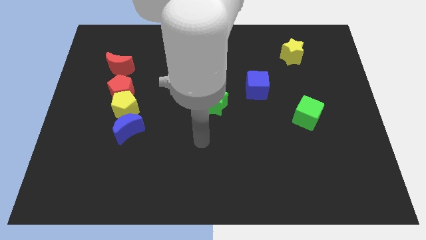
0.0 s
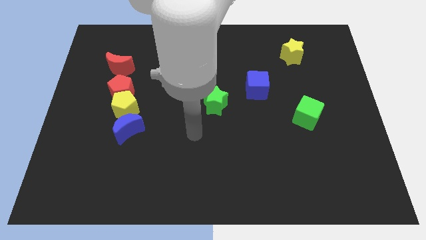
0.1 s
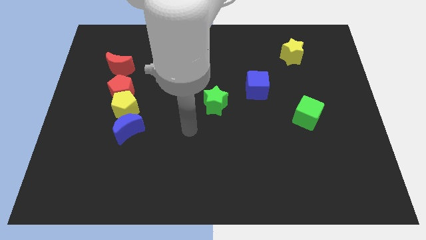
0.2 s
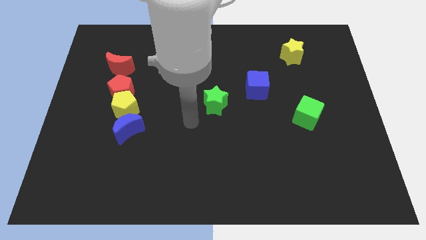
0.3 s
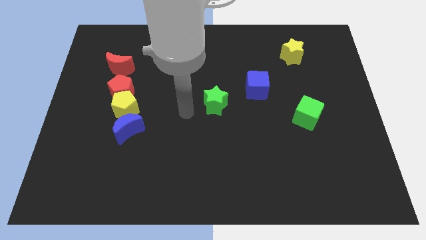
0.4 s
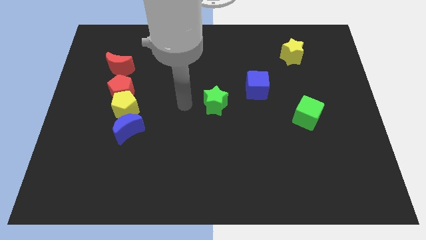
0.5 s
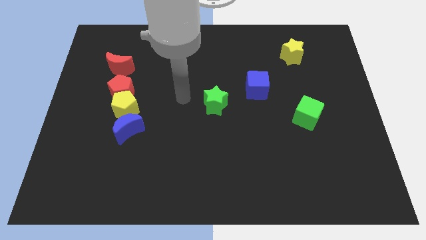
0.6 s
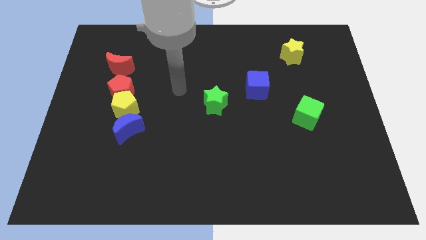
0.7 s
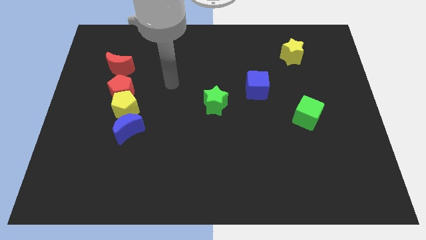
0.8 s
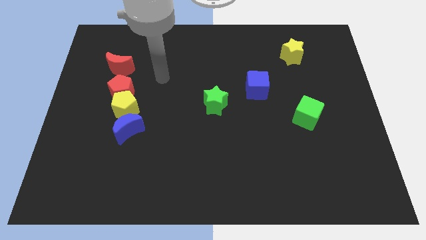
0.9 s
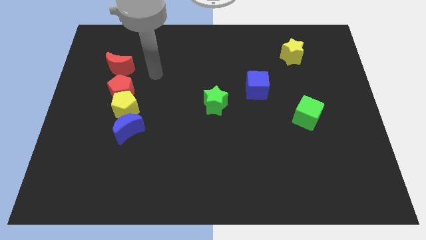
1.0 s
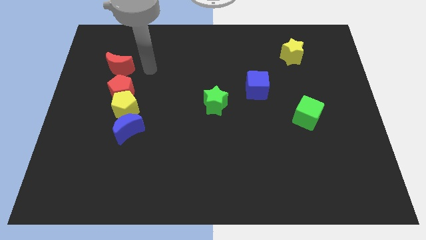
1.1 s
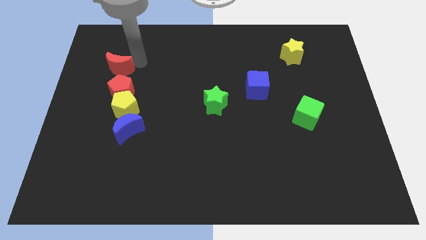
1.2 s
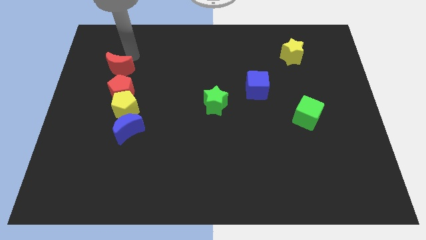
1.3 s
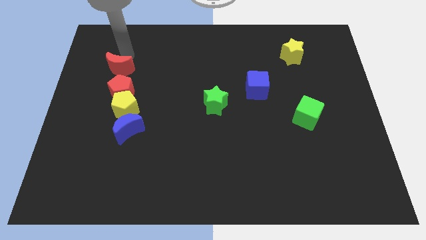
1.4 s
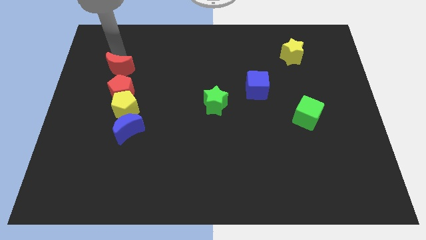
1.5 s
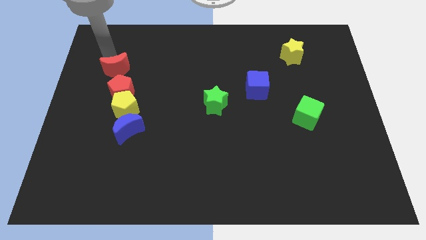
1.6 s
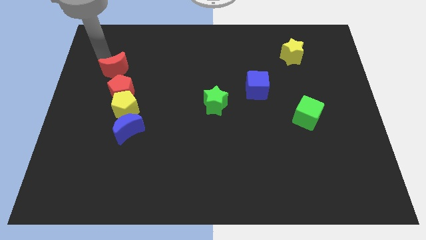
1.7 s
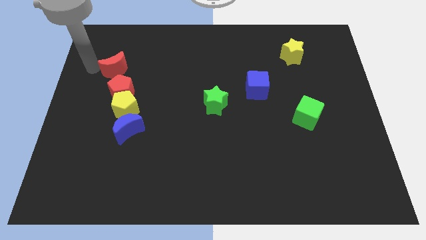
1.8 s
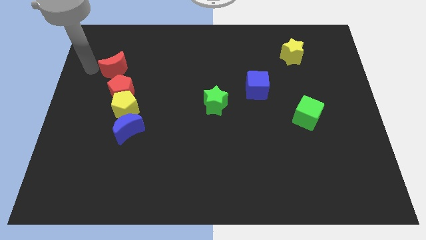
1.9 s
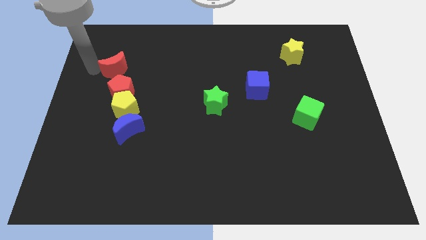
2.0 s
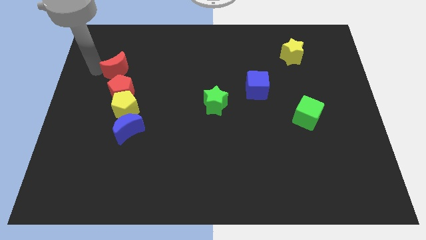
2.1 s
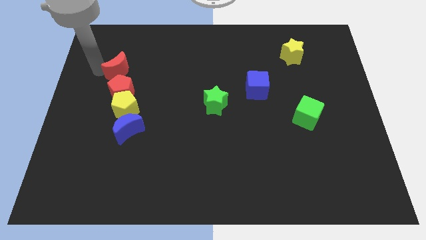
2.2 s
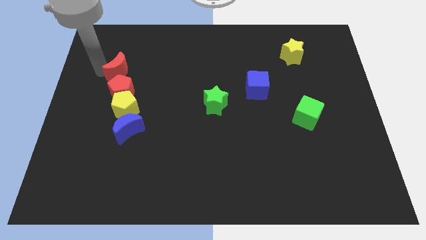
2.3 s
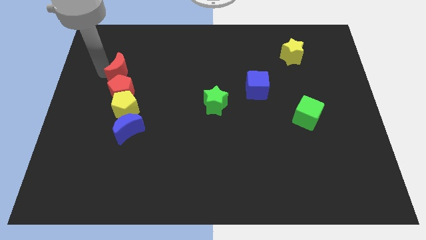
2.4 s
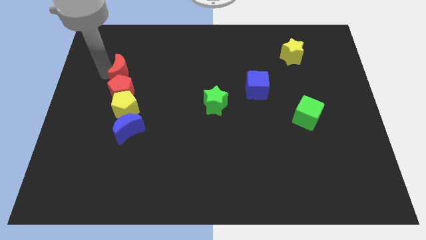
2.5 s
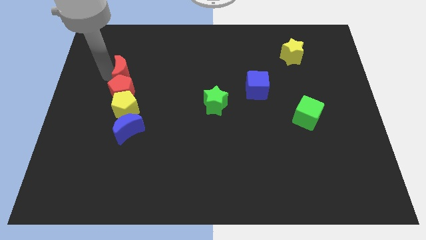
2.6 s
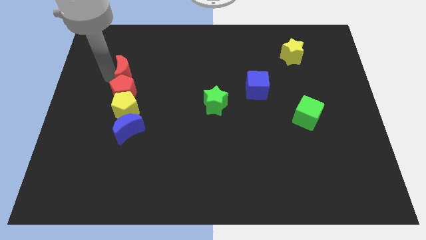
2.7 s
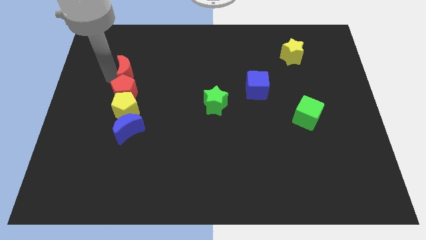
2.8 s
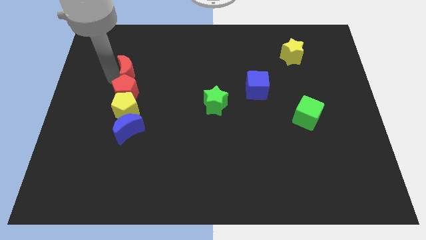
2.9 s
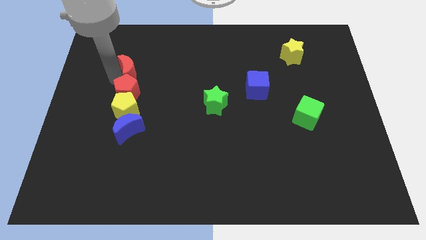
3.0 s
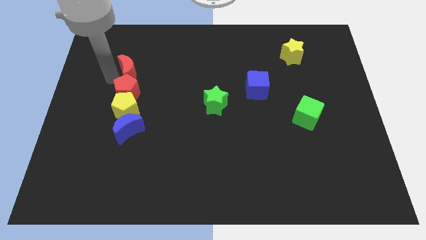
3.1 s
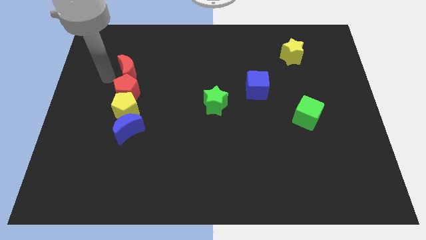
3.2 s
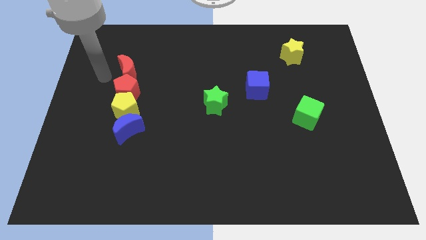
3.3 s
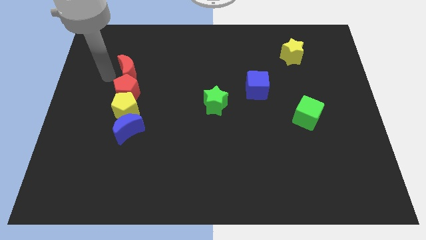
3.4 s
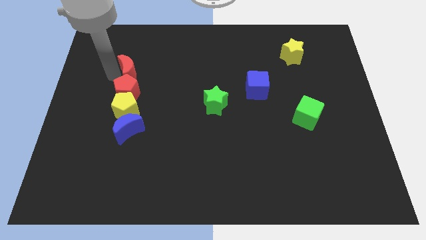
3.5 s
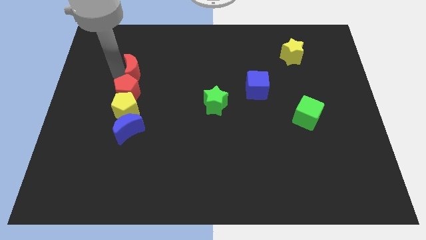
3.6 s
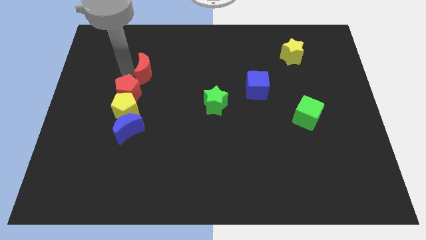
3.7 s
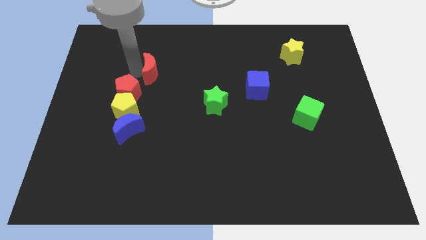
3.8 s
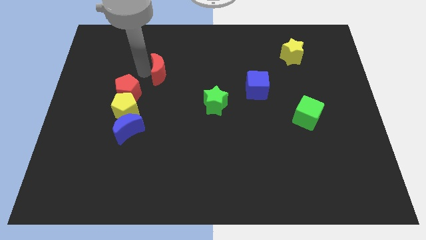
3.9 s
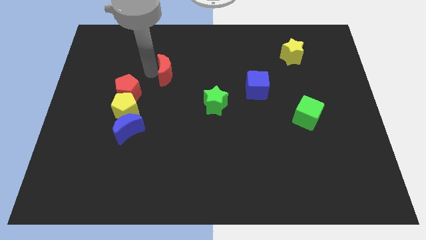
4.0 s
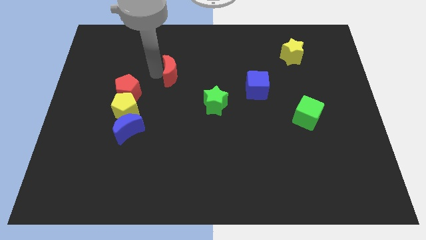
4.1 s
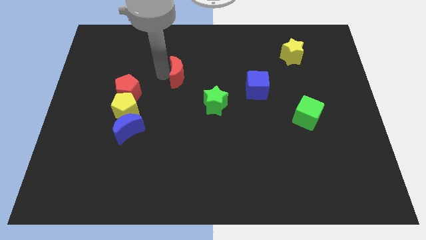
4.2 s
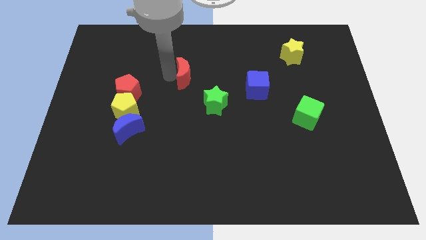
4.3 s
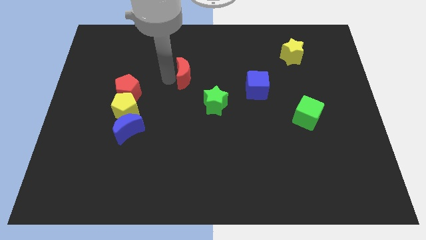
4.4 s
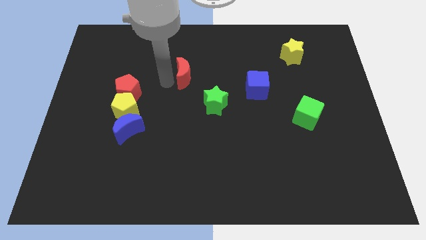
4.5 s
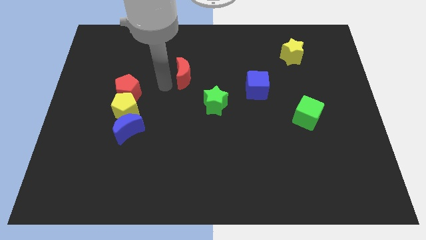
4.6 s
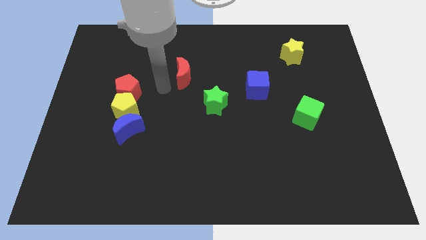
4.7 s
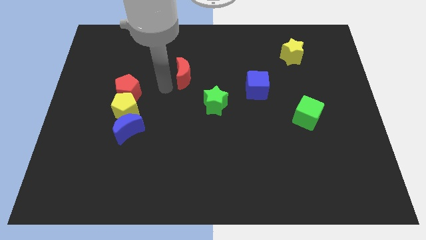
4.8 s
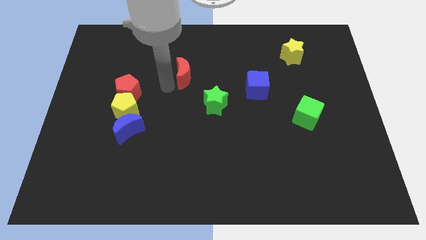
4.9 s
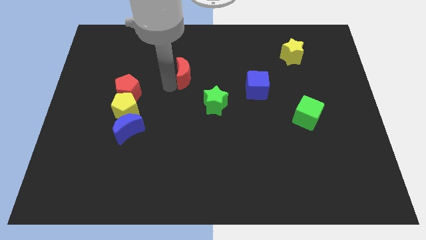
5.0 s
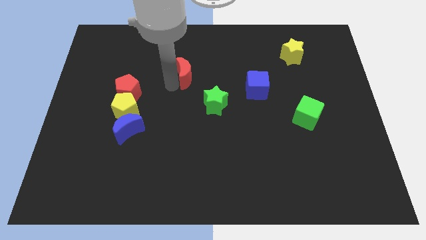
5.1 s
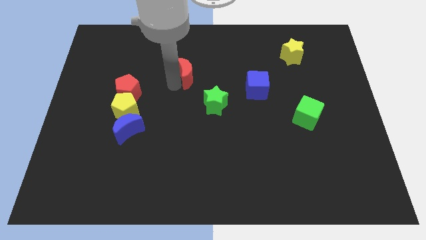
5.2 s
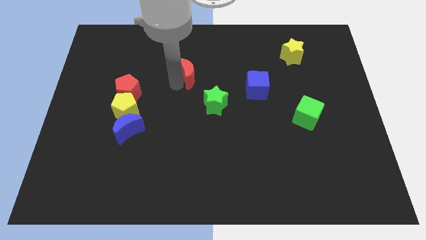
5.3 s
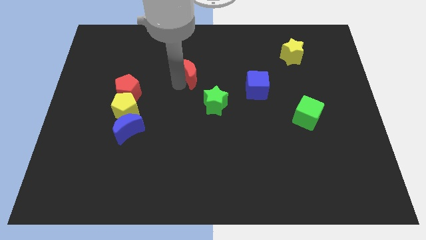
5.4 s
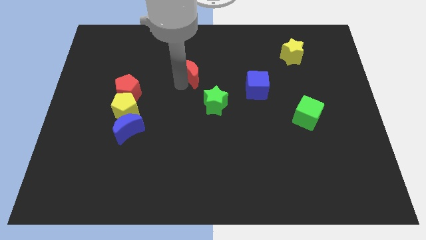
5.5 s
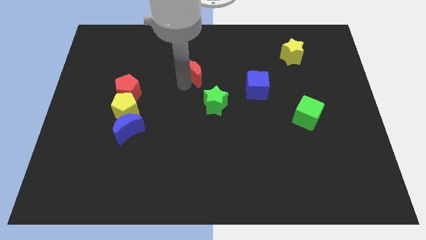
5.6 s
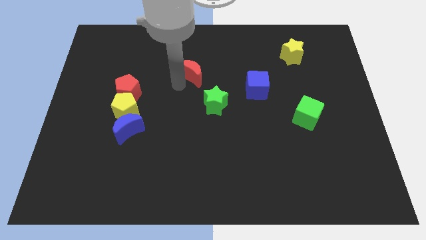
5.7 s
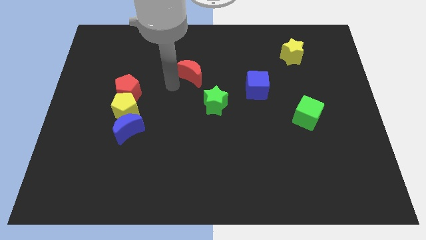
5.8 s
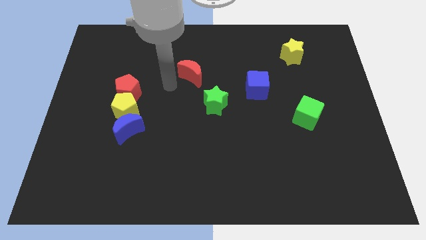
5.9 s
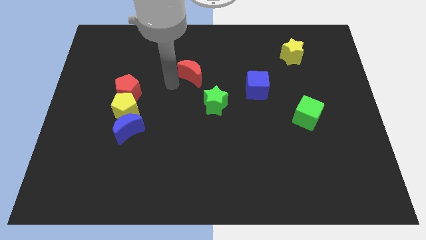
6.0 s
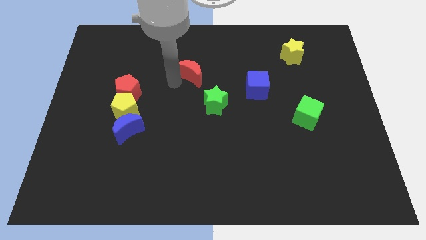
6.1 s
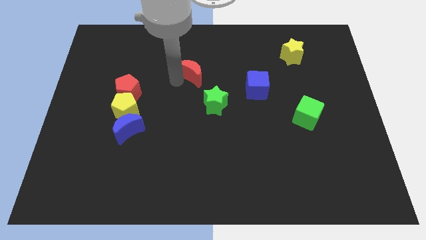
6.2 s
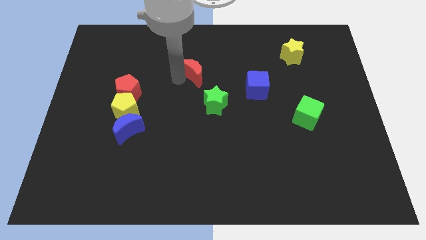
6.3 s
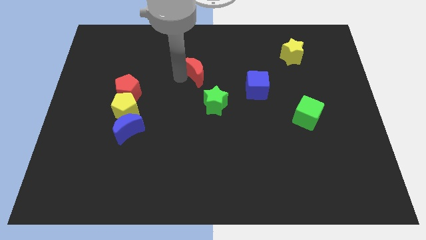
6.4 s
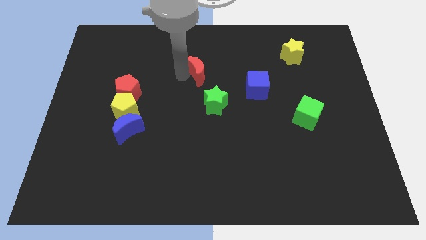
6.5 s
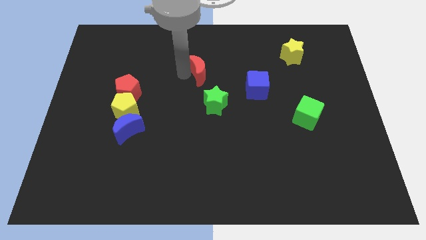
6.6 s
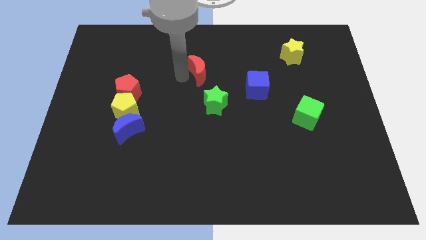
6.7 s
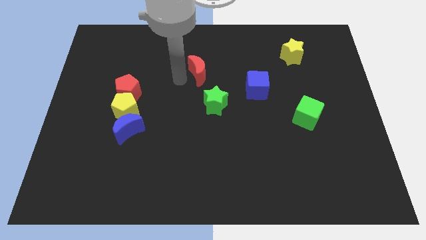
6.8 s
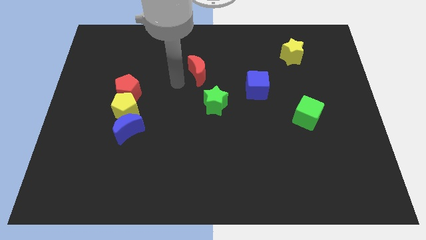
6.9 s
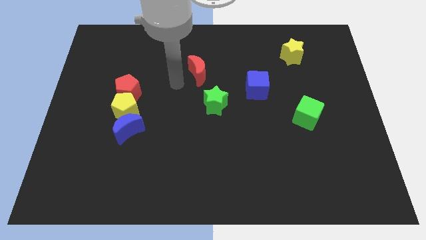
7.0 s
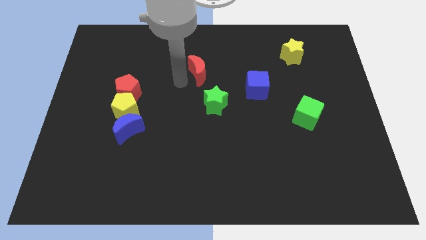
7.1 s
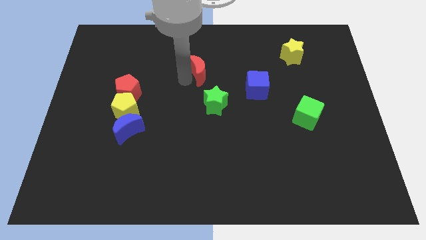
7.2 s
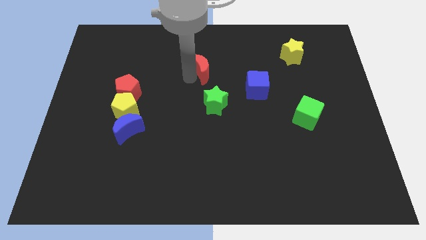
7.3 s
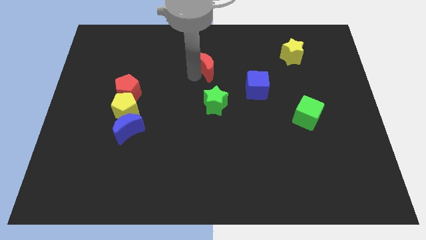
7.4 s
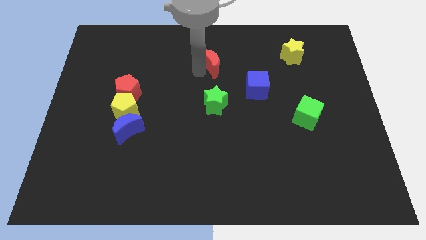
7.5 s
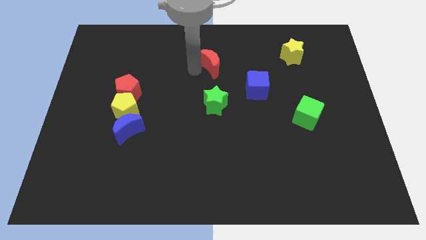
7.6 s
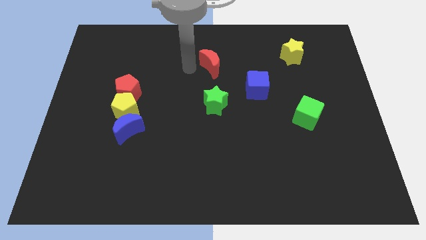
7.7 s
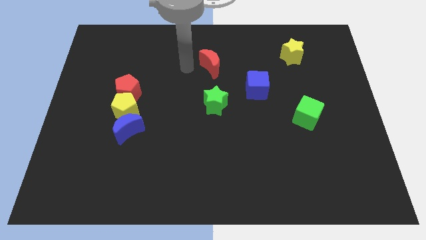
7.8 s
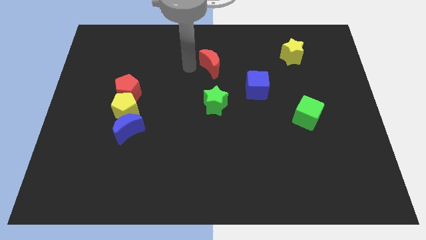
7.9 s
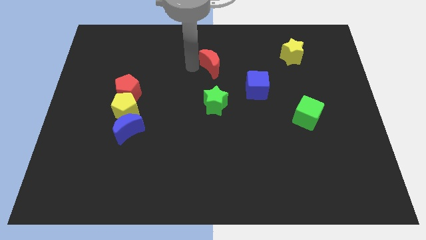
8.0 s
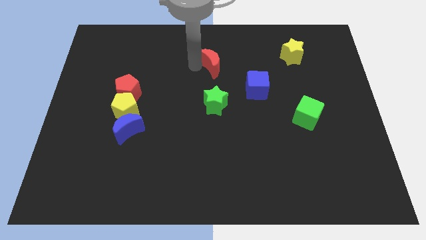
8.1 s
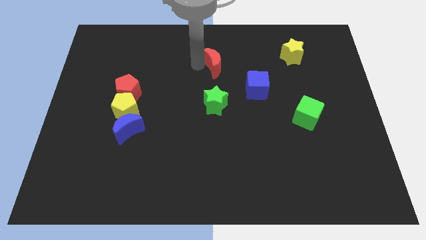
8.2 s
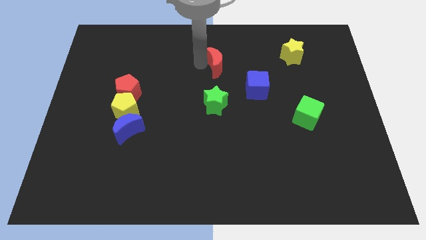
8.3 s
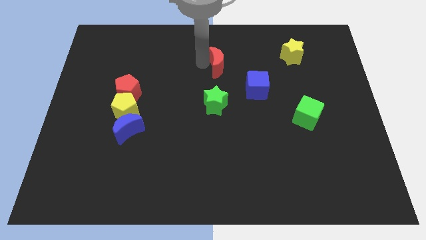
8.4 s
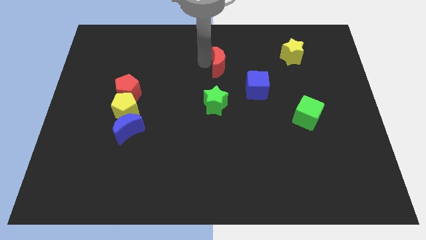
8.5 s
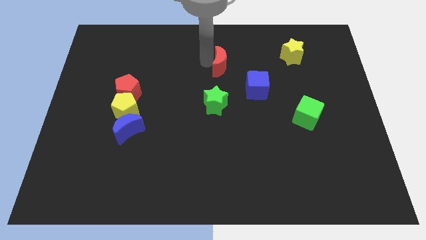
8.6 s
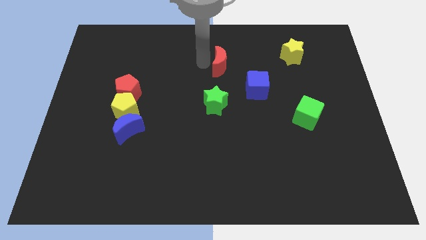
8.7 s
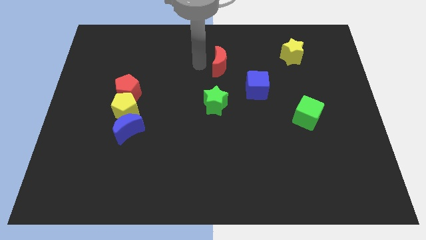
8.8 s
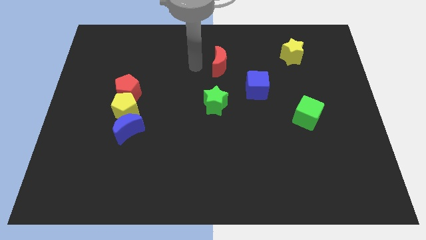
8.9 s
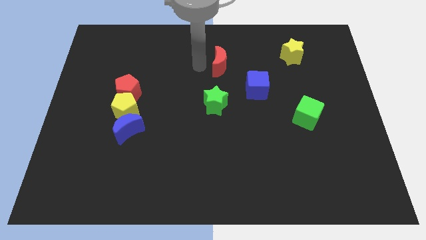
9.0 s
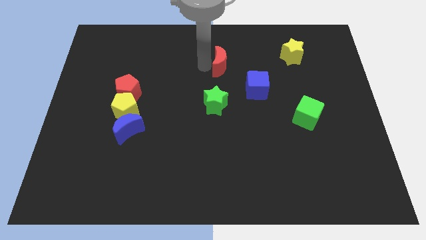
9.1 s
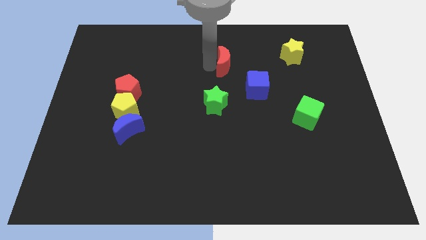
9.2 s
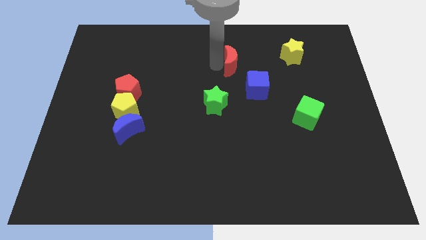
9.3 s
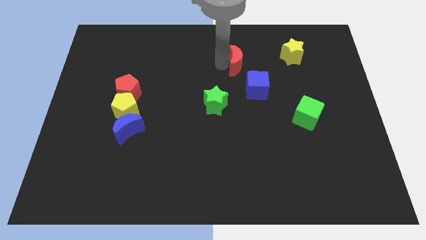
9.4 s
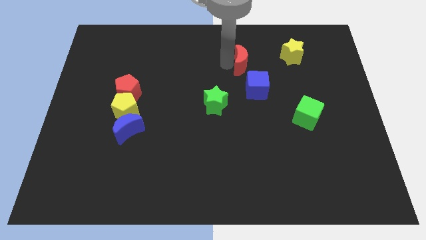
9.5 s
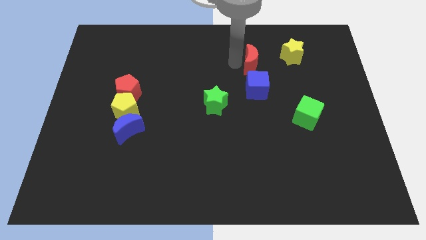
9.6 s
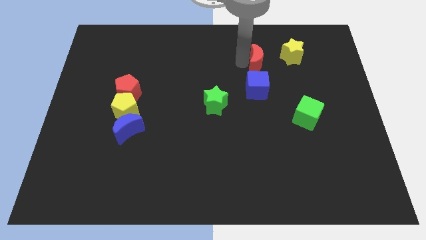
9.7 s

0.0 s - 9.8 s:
push the red moon diagonally down and to the left of the yellow star
